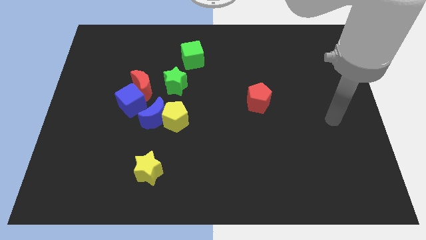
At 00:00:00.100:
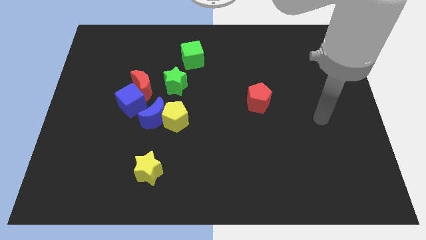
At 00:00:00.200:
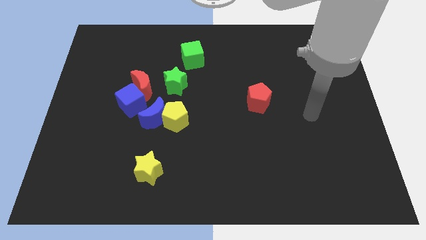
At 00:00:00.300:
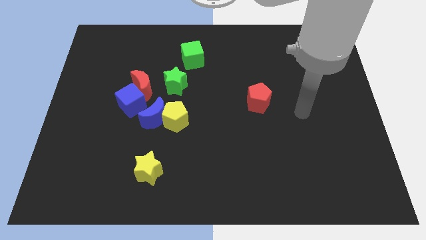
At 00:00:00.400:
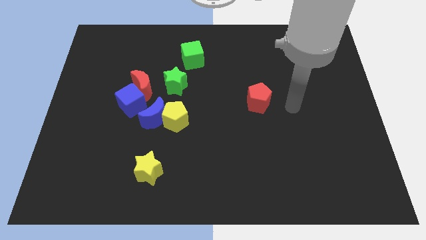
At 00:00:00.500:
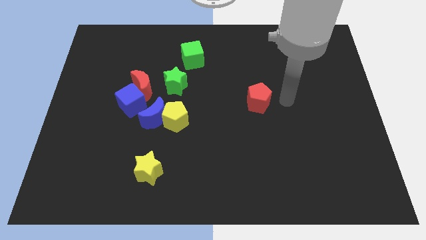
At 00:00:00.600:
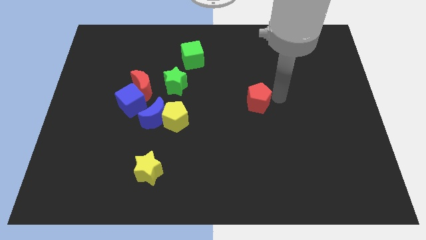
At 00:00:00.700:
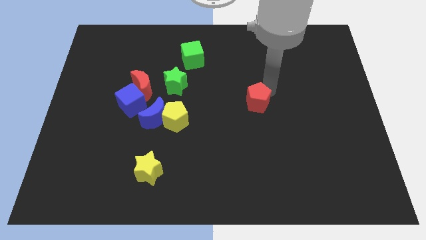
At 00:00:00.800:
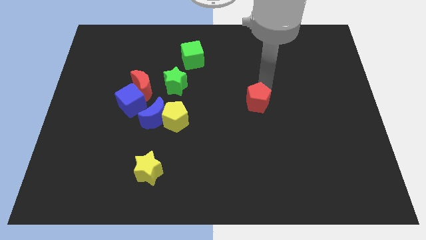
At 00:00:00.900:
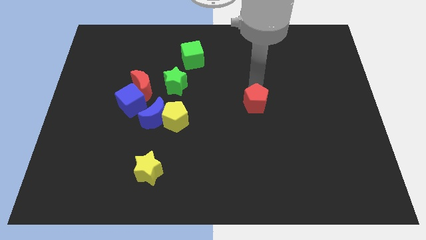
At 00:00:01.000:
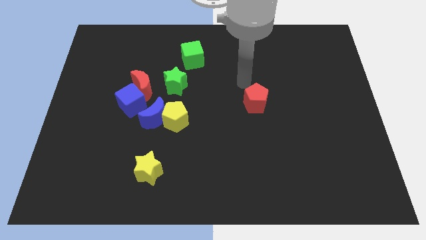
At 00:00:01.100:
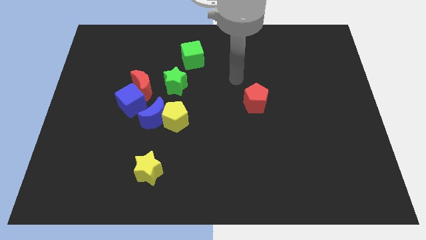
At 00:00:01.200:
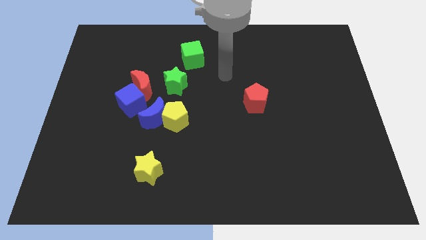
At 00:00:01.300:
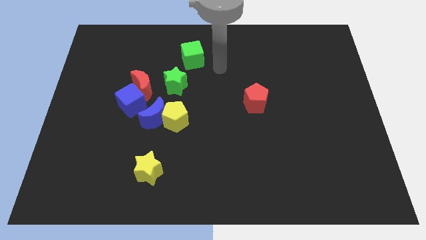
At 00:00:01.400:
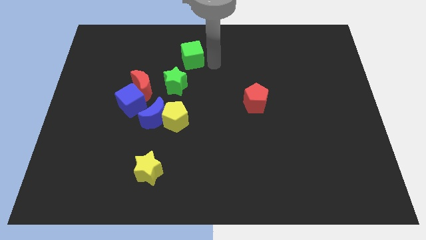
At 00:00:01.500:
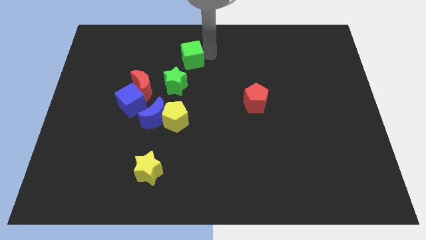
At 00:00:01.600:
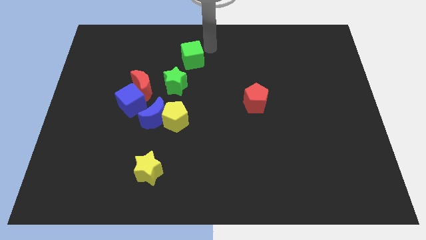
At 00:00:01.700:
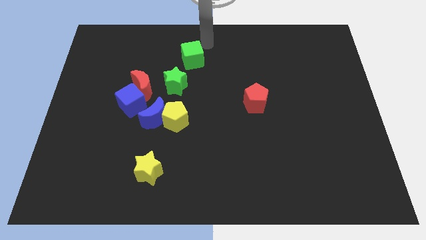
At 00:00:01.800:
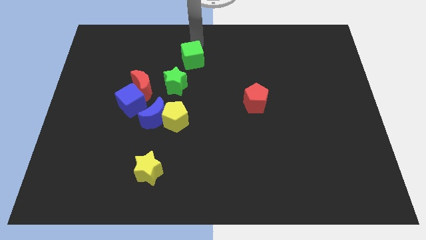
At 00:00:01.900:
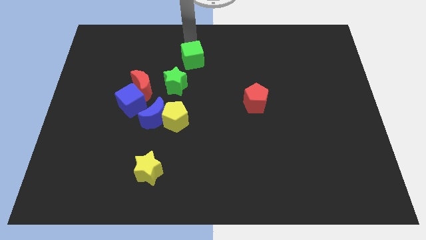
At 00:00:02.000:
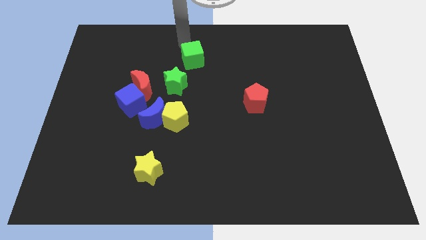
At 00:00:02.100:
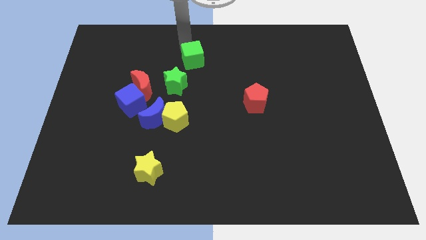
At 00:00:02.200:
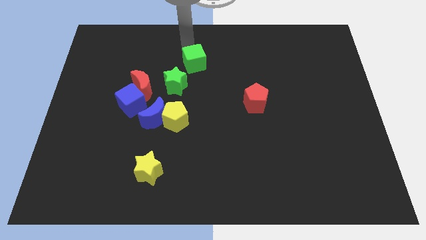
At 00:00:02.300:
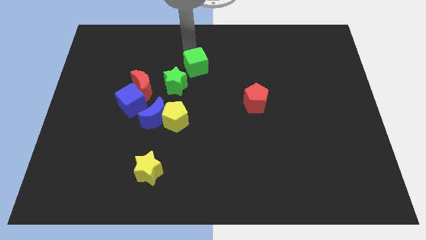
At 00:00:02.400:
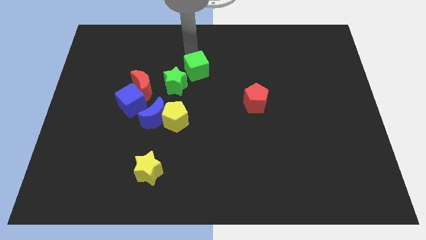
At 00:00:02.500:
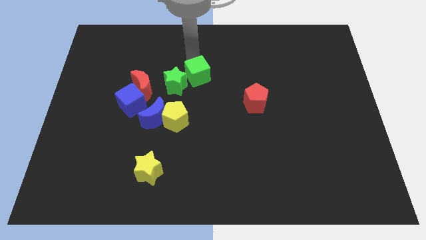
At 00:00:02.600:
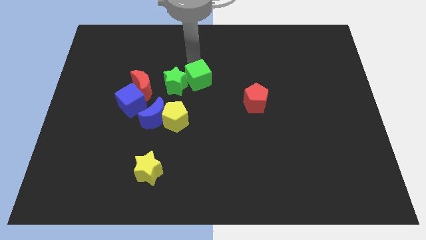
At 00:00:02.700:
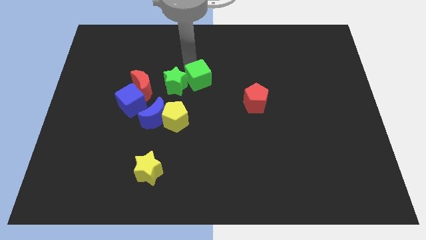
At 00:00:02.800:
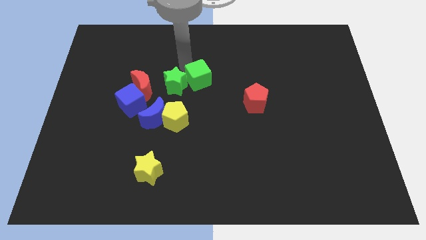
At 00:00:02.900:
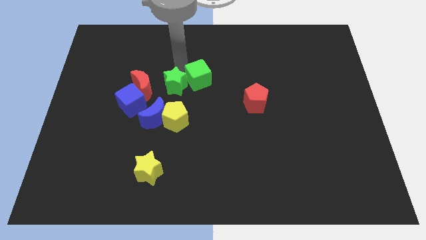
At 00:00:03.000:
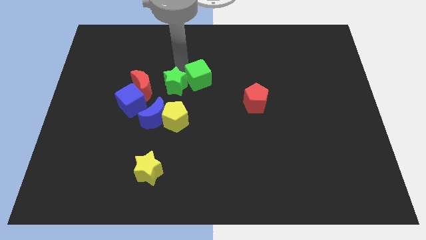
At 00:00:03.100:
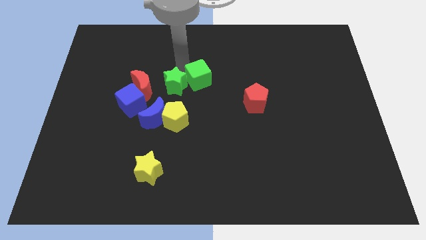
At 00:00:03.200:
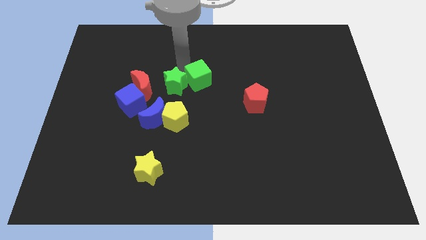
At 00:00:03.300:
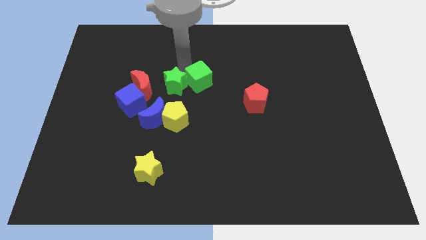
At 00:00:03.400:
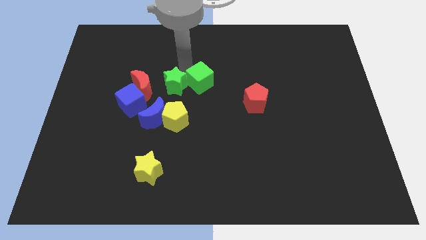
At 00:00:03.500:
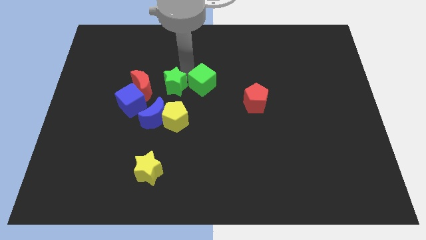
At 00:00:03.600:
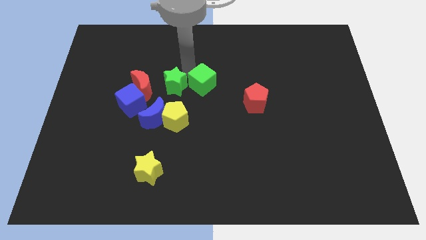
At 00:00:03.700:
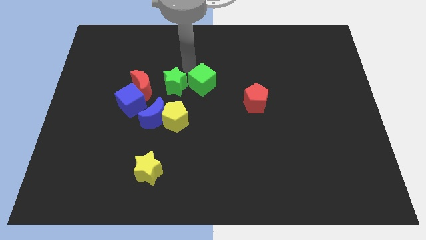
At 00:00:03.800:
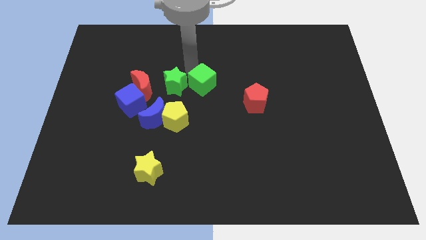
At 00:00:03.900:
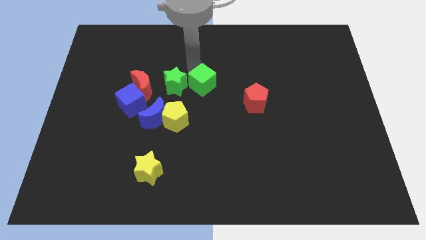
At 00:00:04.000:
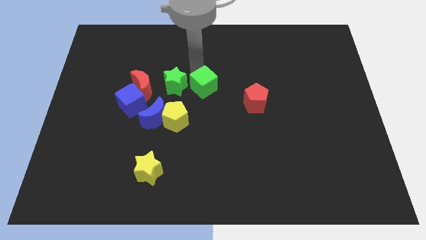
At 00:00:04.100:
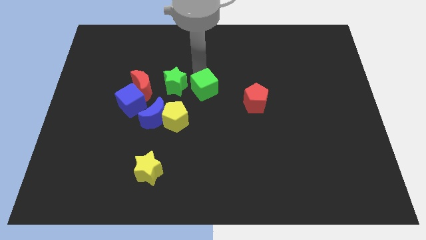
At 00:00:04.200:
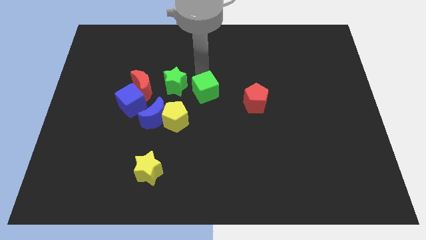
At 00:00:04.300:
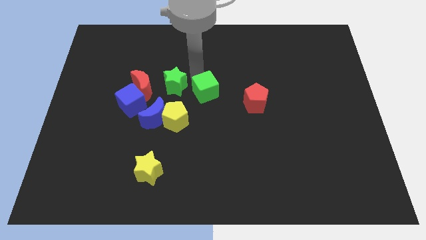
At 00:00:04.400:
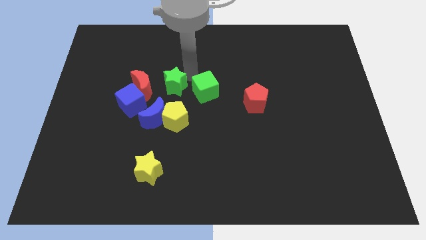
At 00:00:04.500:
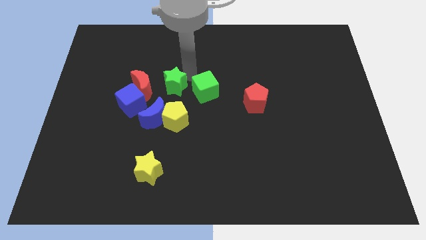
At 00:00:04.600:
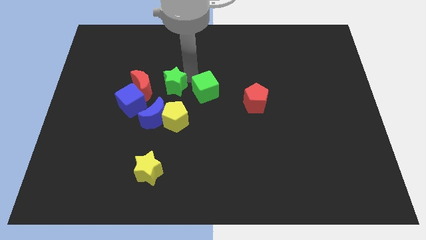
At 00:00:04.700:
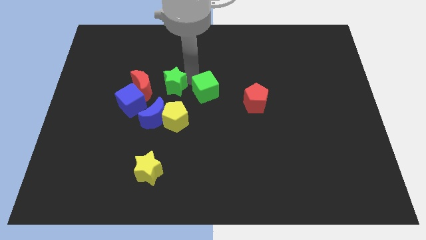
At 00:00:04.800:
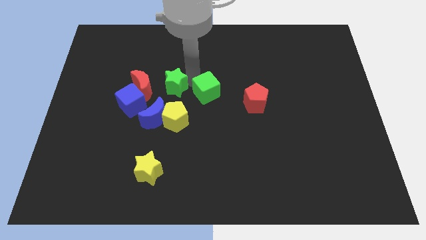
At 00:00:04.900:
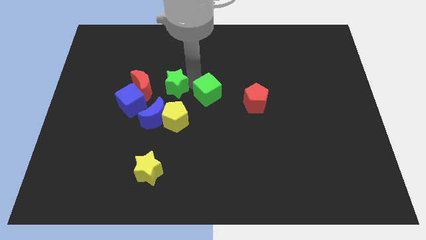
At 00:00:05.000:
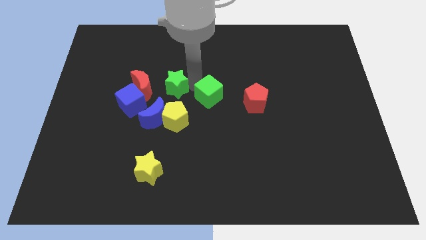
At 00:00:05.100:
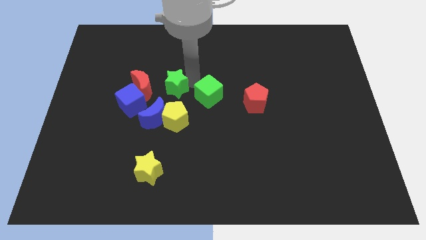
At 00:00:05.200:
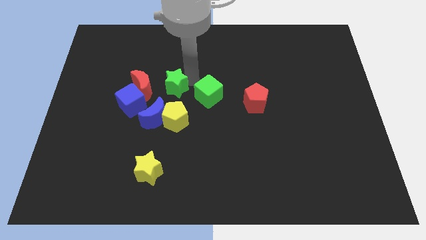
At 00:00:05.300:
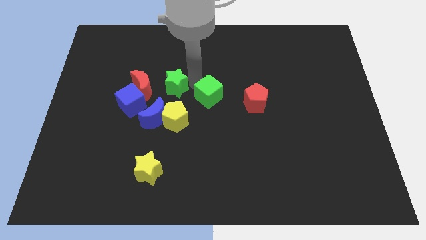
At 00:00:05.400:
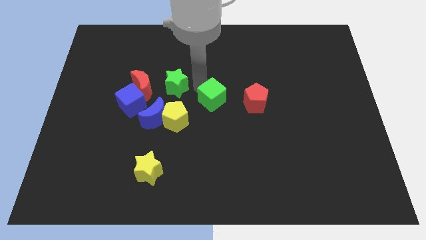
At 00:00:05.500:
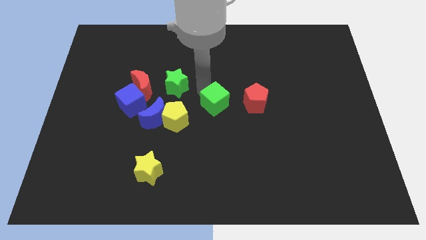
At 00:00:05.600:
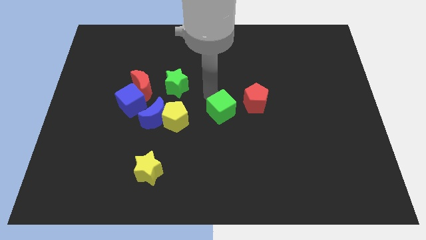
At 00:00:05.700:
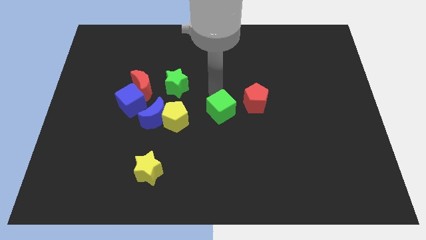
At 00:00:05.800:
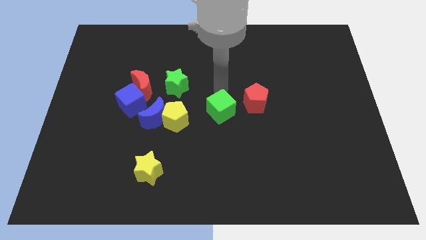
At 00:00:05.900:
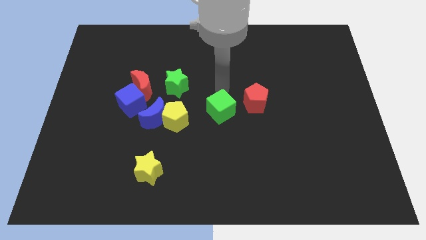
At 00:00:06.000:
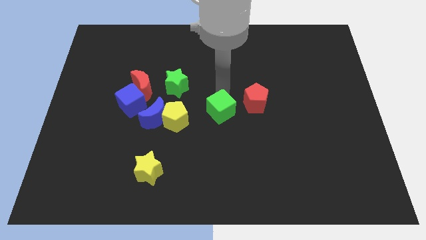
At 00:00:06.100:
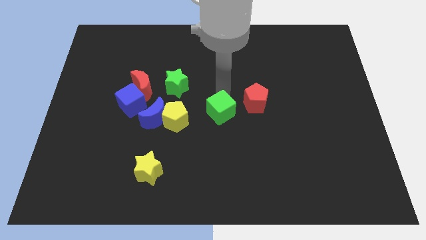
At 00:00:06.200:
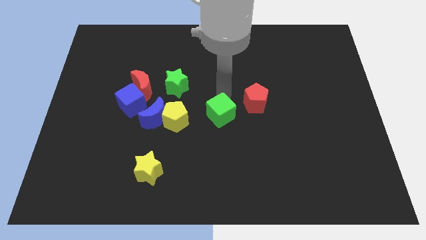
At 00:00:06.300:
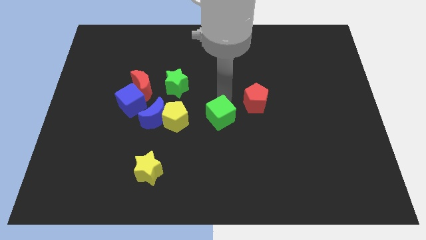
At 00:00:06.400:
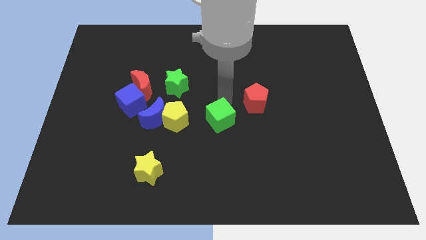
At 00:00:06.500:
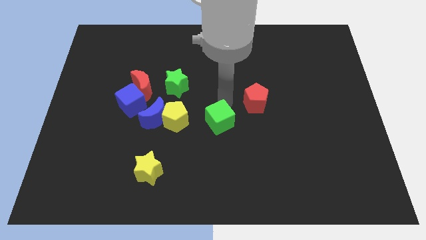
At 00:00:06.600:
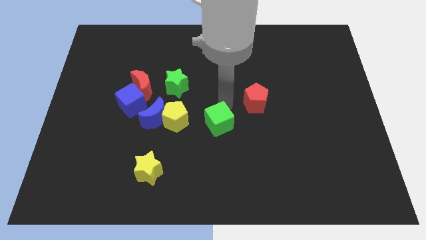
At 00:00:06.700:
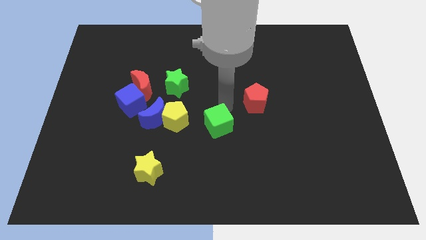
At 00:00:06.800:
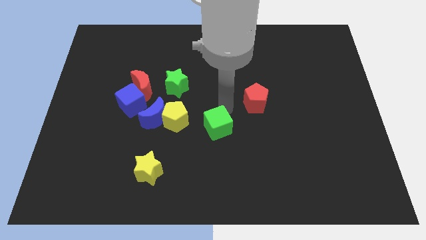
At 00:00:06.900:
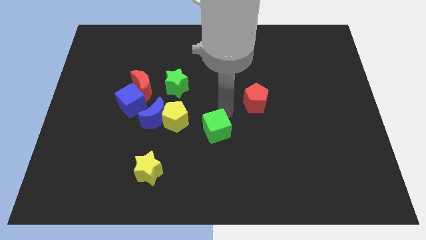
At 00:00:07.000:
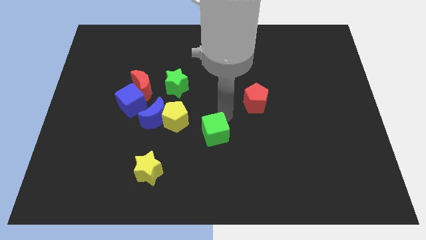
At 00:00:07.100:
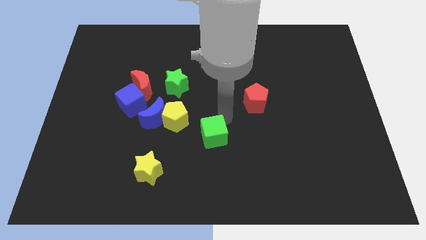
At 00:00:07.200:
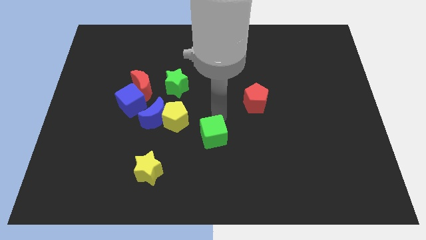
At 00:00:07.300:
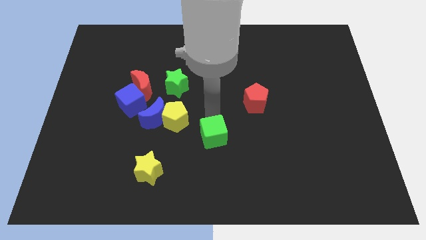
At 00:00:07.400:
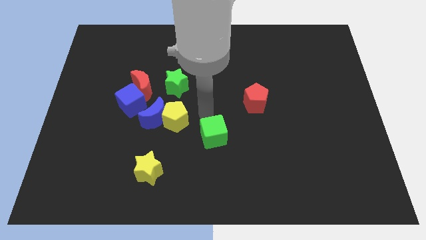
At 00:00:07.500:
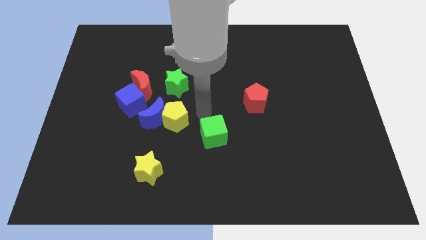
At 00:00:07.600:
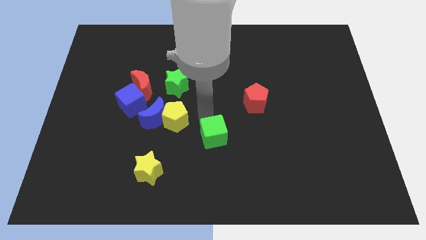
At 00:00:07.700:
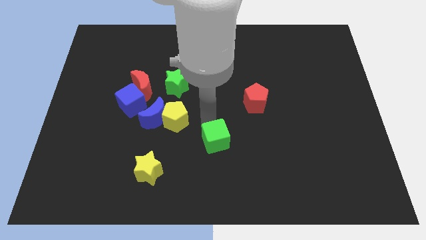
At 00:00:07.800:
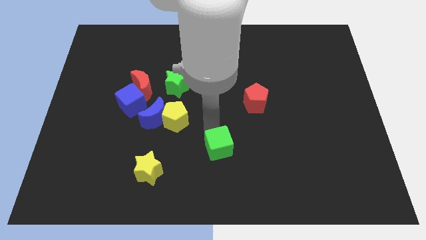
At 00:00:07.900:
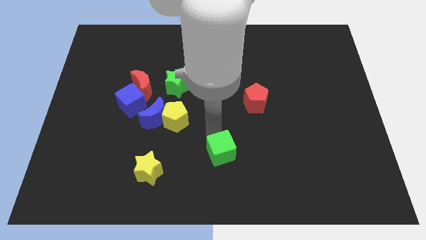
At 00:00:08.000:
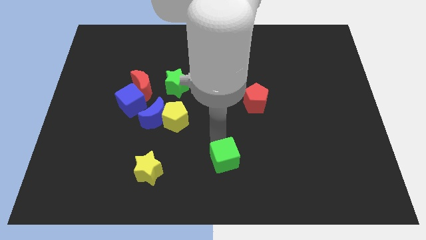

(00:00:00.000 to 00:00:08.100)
push the green cube to the bottom
